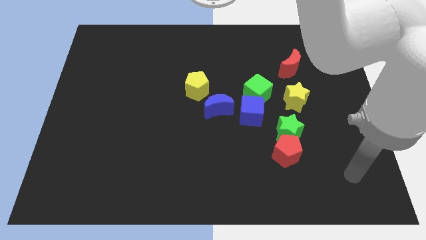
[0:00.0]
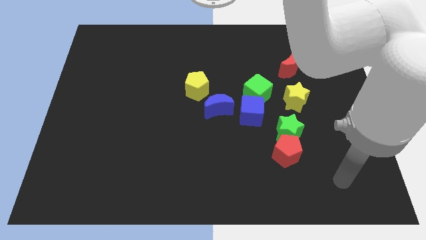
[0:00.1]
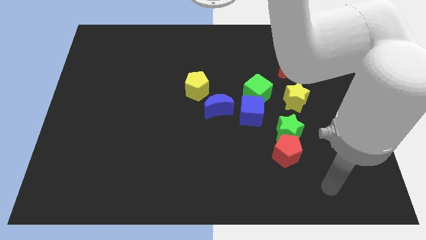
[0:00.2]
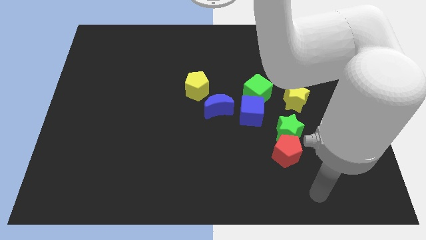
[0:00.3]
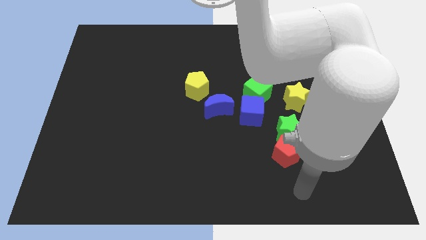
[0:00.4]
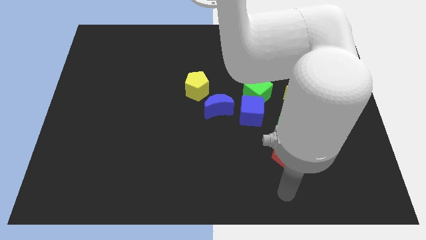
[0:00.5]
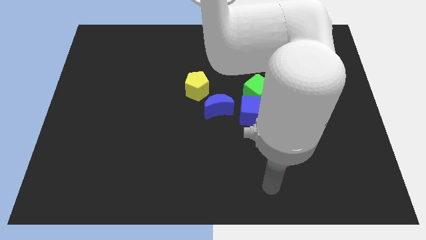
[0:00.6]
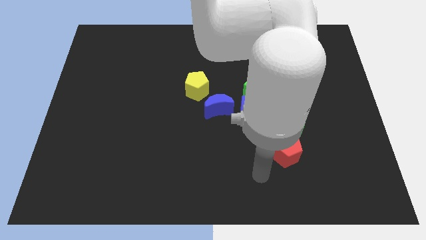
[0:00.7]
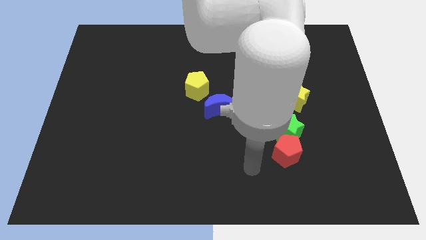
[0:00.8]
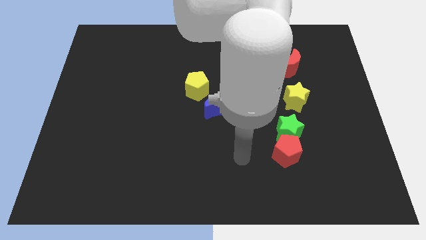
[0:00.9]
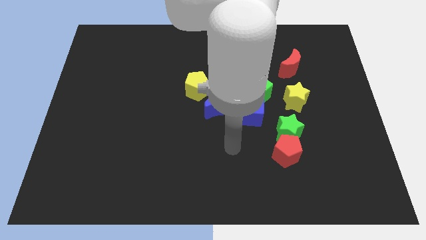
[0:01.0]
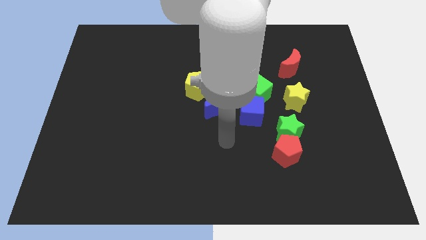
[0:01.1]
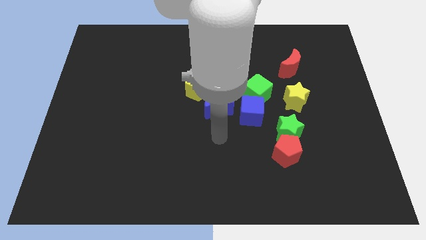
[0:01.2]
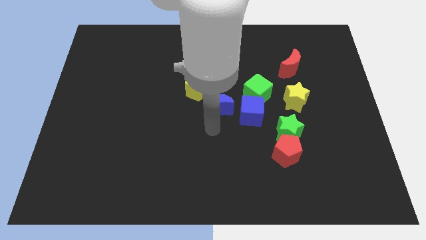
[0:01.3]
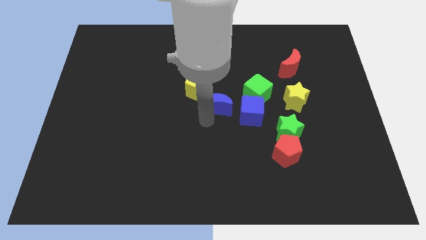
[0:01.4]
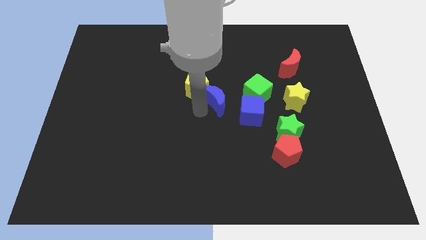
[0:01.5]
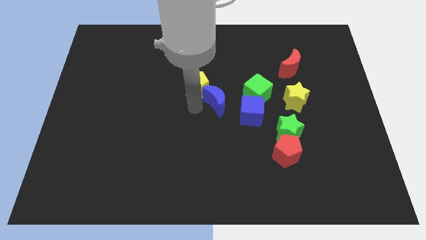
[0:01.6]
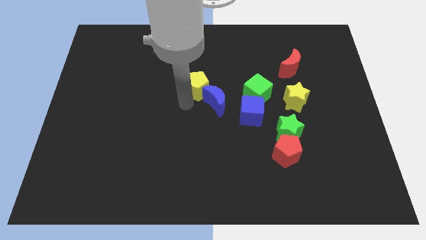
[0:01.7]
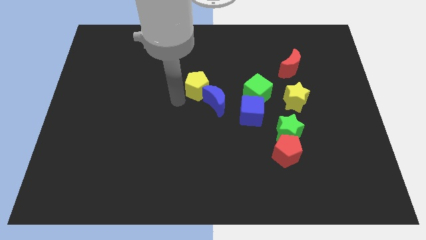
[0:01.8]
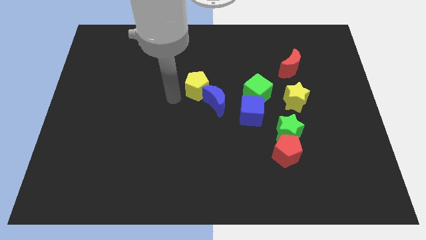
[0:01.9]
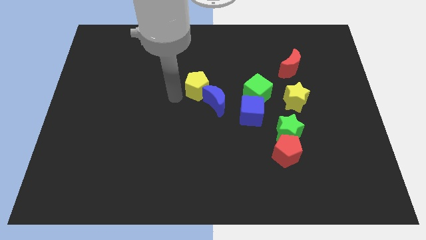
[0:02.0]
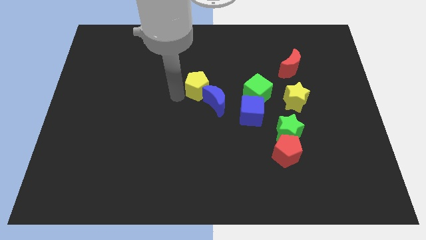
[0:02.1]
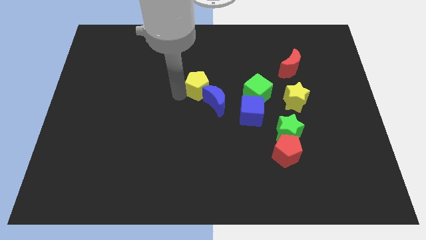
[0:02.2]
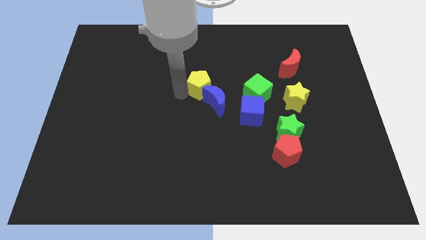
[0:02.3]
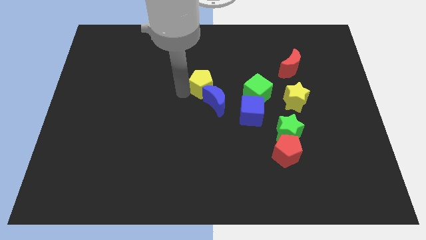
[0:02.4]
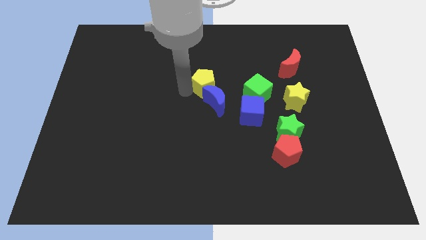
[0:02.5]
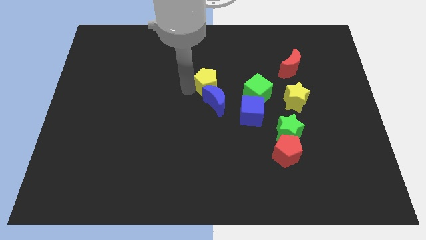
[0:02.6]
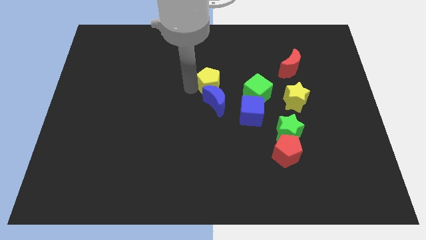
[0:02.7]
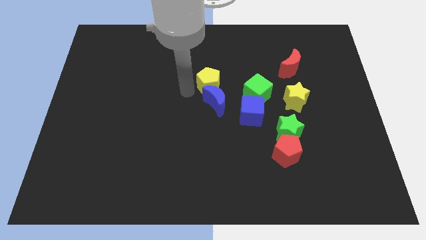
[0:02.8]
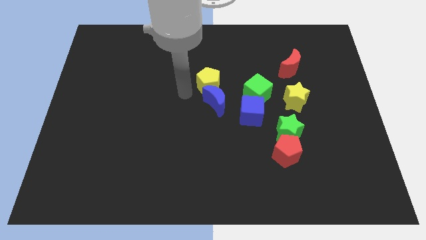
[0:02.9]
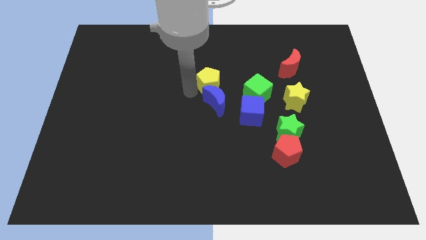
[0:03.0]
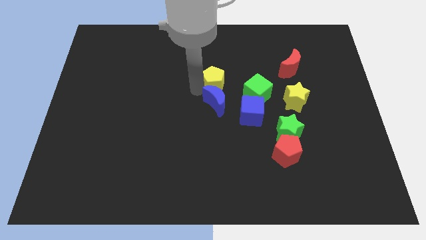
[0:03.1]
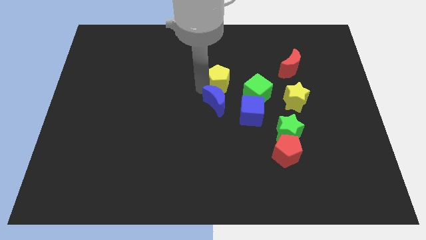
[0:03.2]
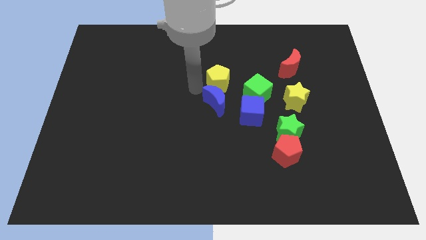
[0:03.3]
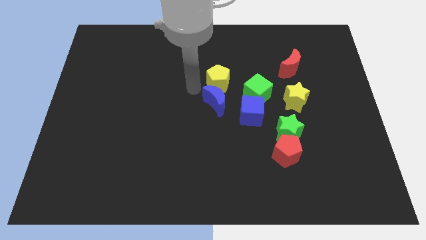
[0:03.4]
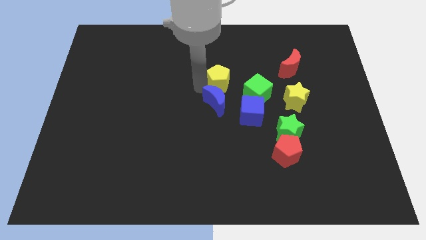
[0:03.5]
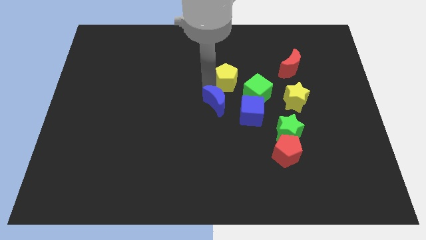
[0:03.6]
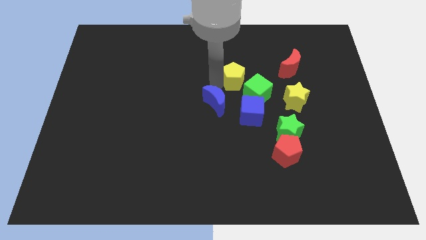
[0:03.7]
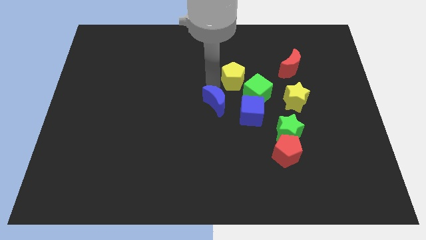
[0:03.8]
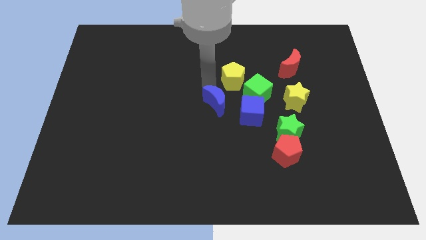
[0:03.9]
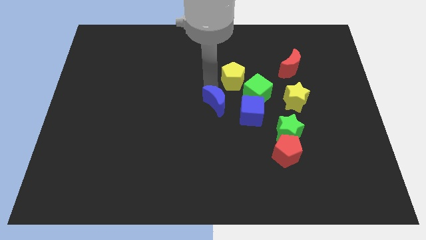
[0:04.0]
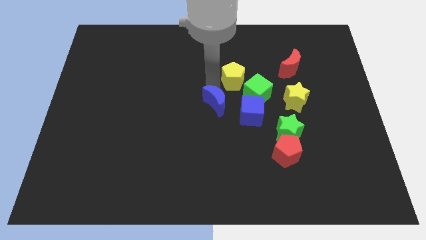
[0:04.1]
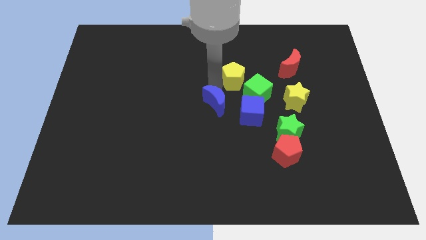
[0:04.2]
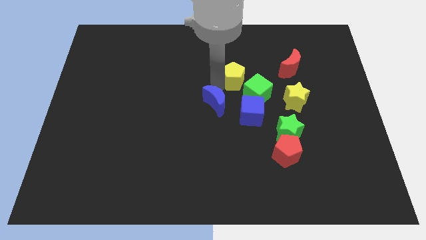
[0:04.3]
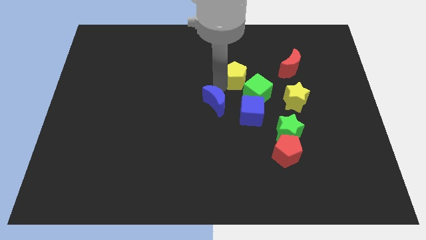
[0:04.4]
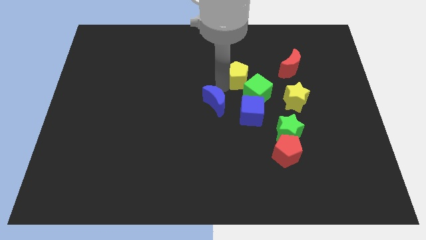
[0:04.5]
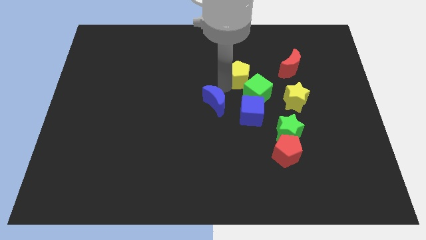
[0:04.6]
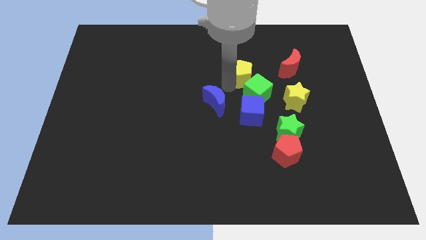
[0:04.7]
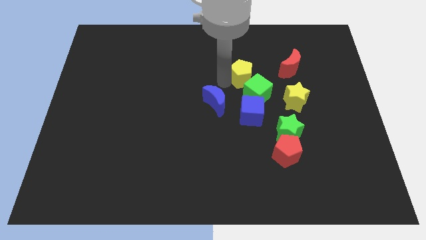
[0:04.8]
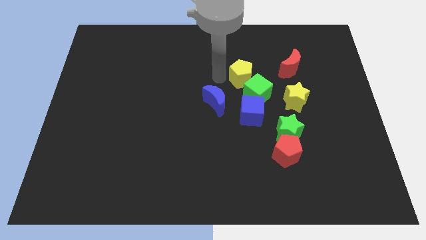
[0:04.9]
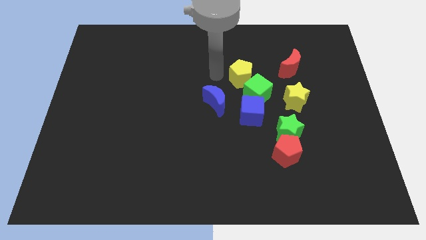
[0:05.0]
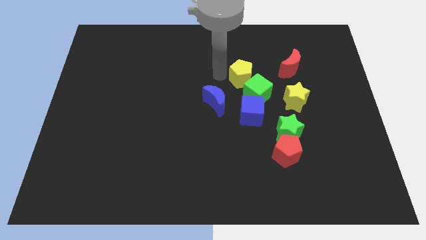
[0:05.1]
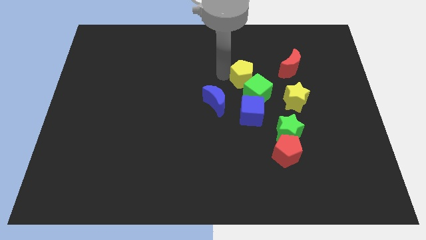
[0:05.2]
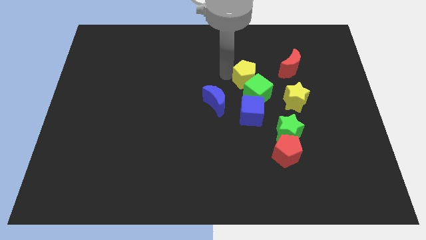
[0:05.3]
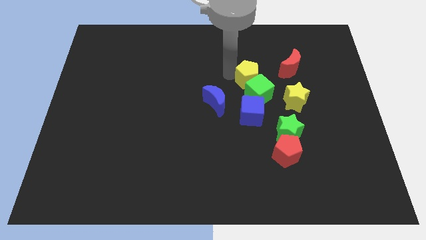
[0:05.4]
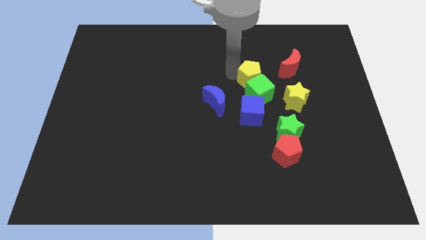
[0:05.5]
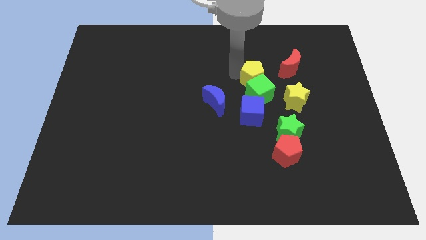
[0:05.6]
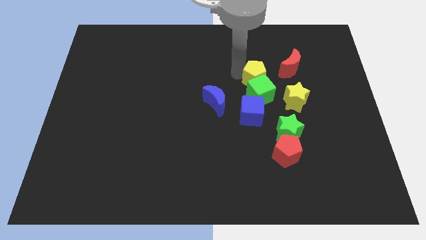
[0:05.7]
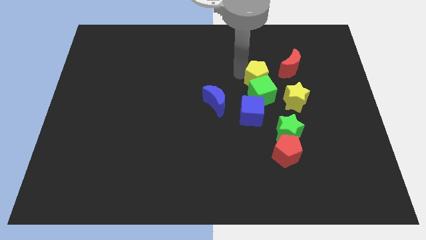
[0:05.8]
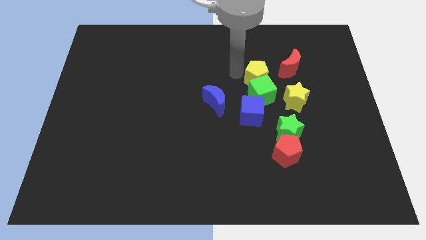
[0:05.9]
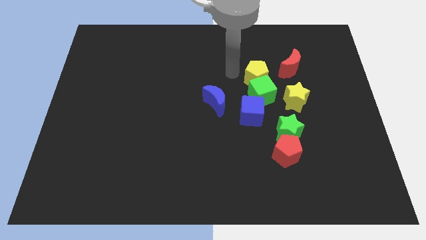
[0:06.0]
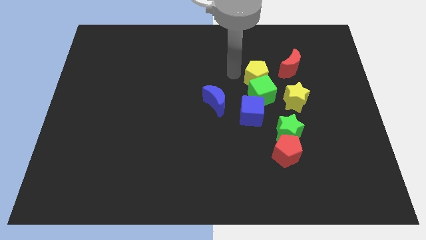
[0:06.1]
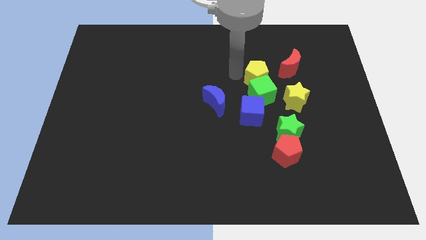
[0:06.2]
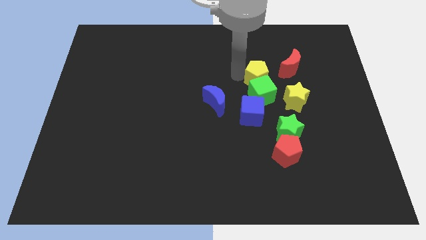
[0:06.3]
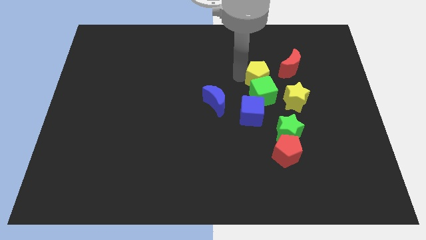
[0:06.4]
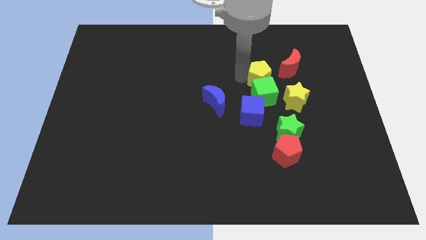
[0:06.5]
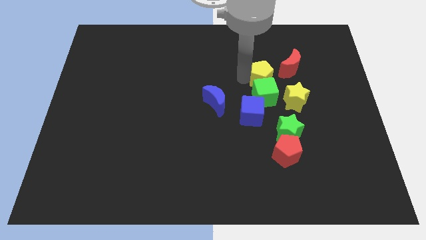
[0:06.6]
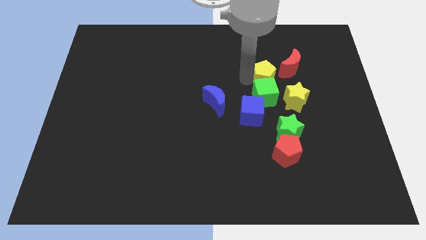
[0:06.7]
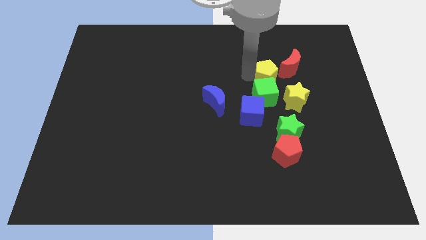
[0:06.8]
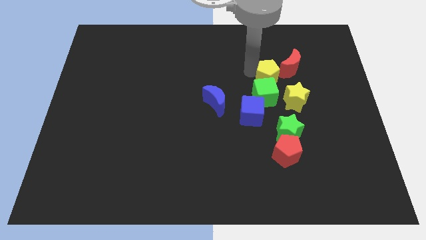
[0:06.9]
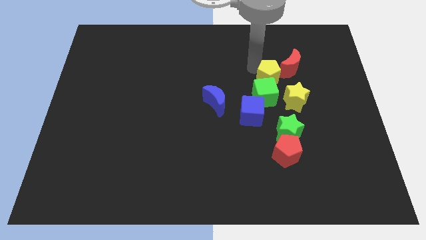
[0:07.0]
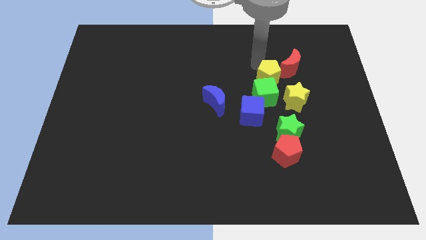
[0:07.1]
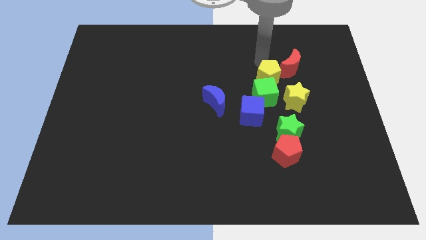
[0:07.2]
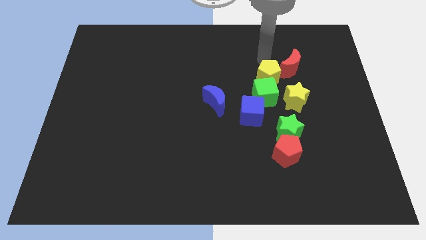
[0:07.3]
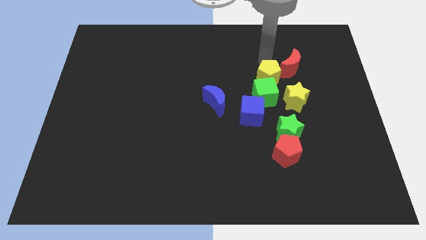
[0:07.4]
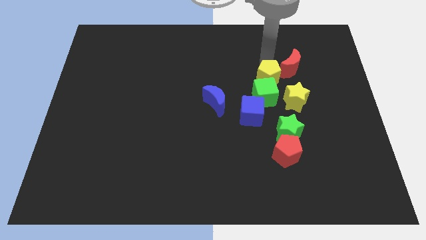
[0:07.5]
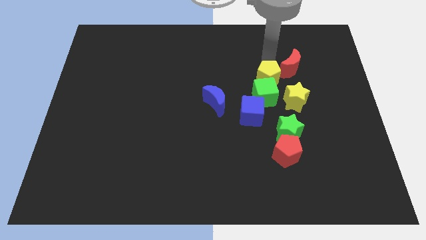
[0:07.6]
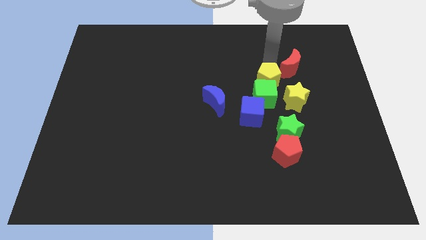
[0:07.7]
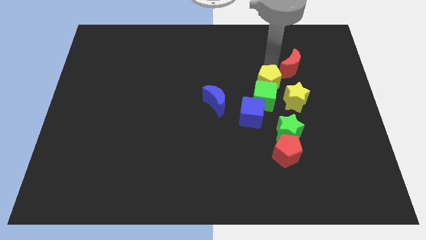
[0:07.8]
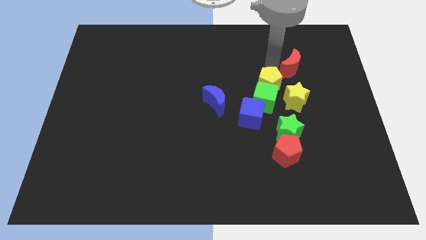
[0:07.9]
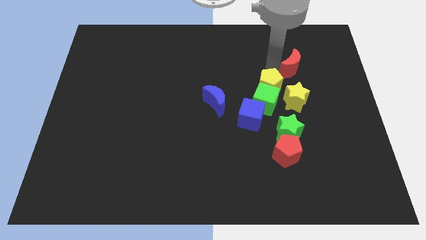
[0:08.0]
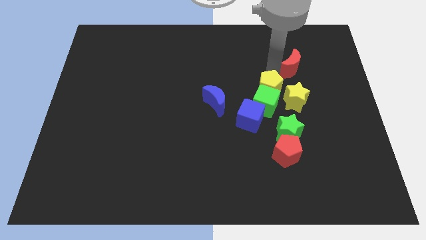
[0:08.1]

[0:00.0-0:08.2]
move the yellow pentagon right of the blue moon
